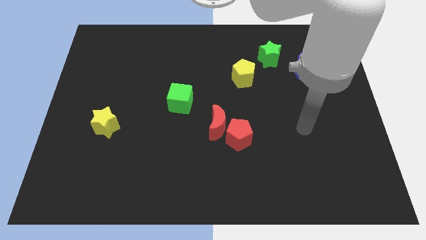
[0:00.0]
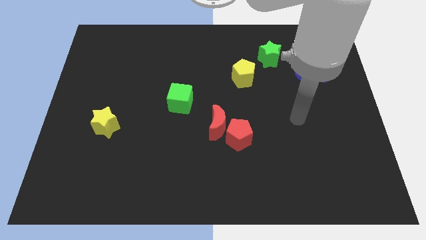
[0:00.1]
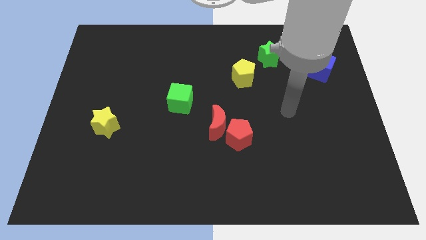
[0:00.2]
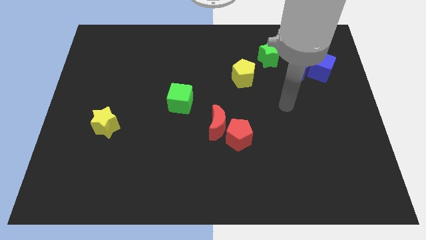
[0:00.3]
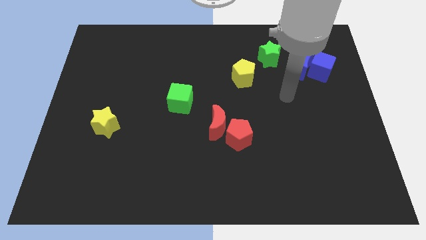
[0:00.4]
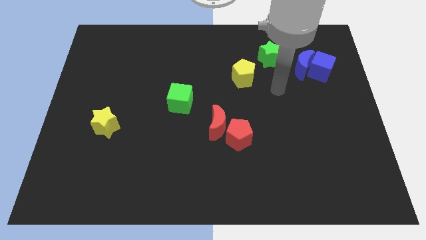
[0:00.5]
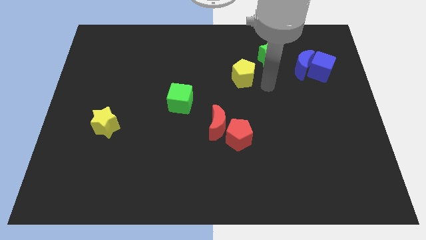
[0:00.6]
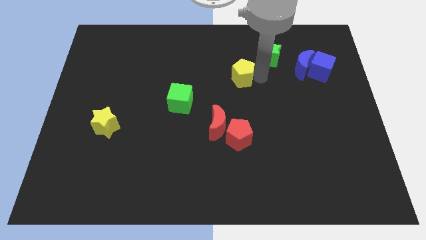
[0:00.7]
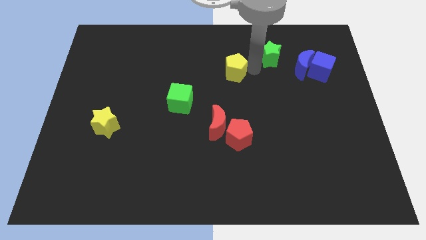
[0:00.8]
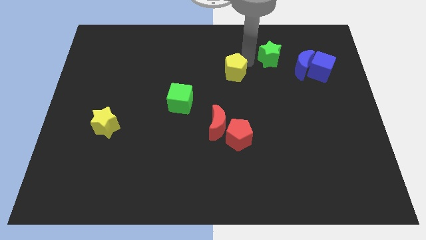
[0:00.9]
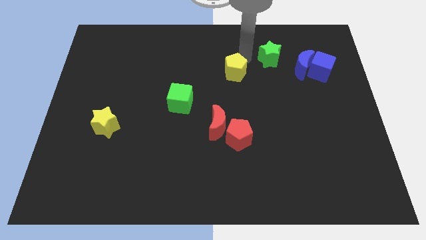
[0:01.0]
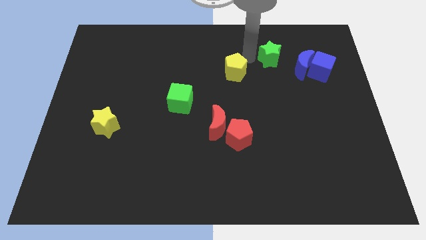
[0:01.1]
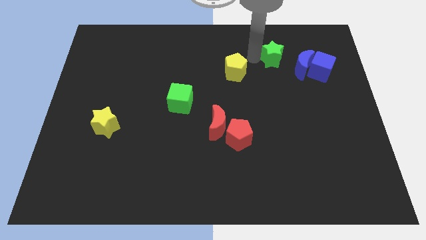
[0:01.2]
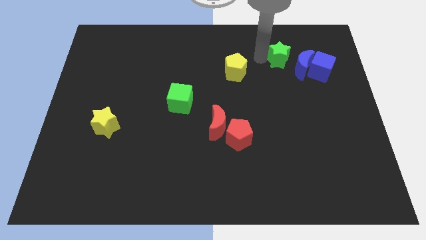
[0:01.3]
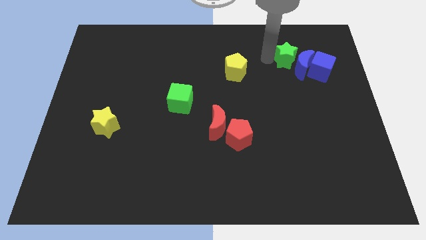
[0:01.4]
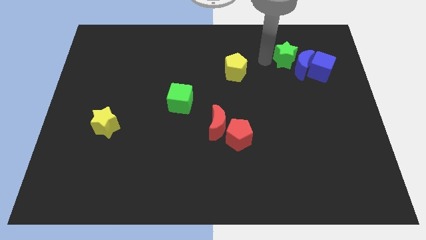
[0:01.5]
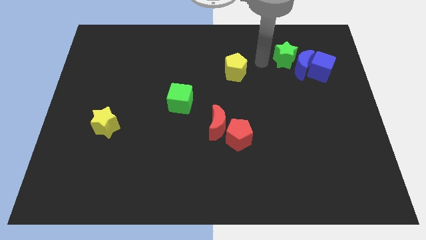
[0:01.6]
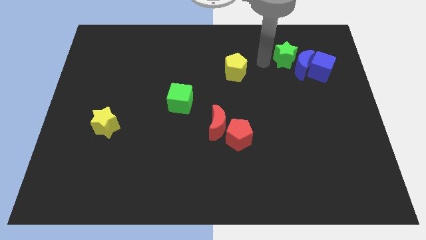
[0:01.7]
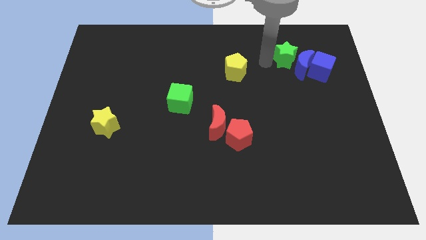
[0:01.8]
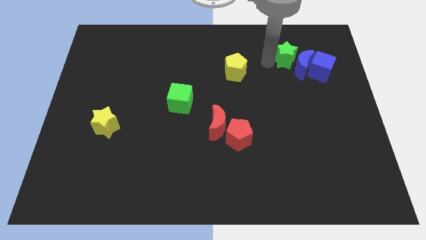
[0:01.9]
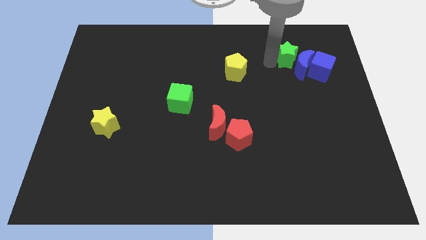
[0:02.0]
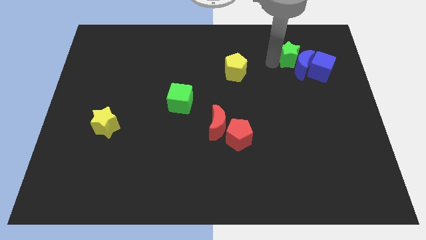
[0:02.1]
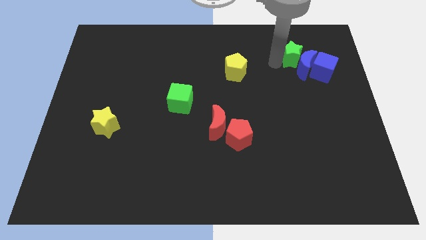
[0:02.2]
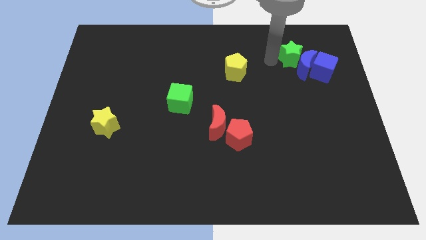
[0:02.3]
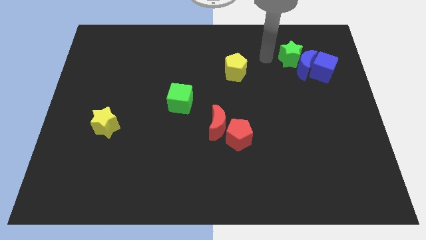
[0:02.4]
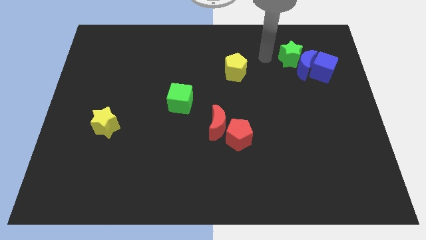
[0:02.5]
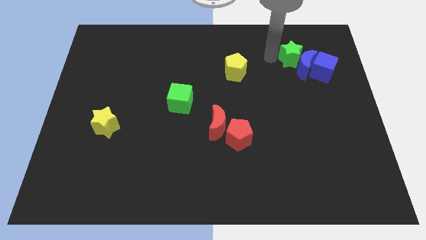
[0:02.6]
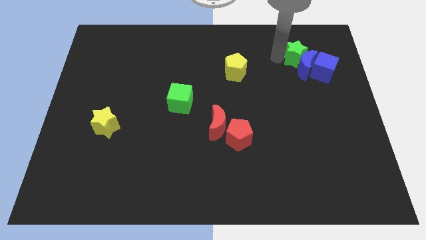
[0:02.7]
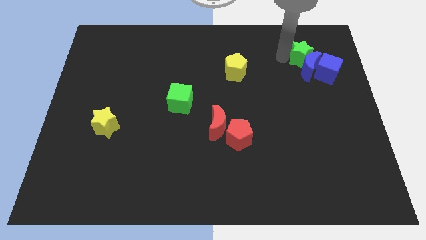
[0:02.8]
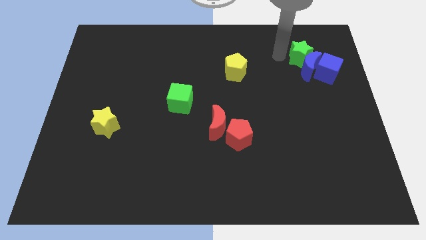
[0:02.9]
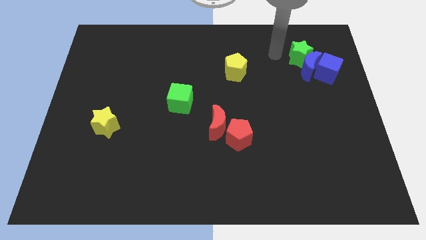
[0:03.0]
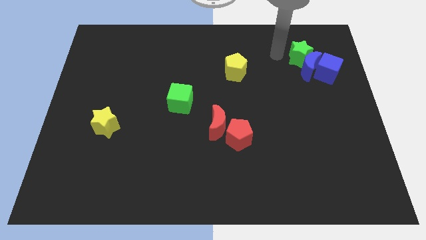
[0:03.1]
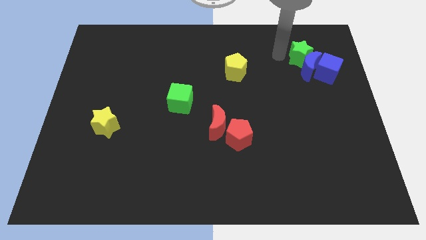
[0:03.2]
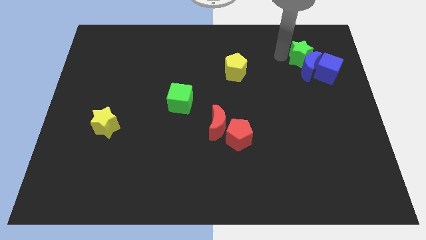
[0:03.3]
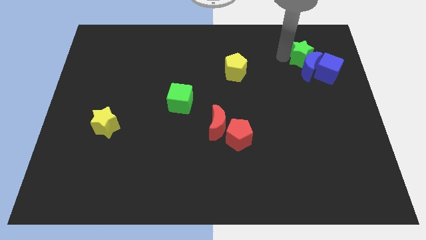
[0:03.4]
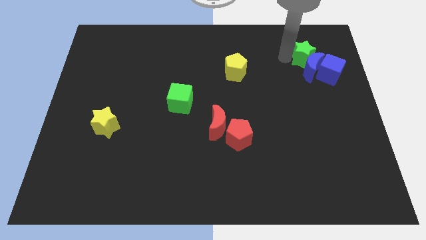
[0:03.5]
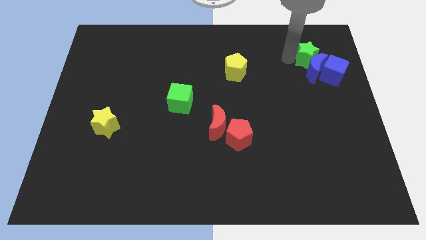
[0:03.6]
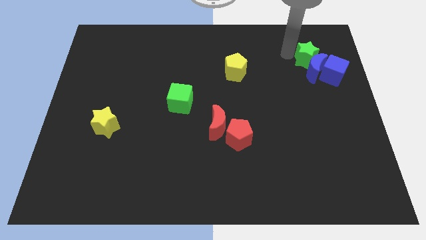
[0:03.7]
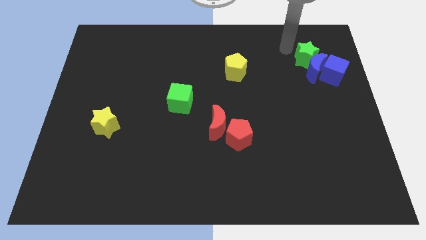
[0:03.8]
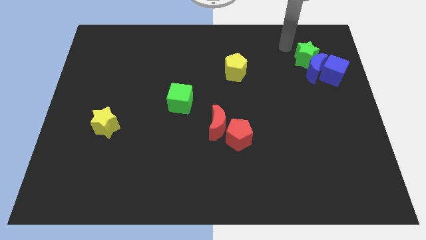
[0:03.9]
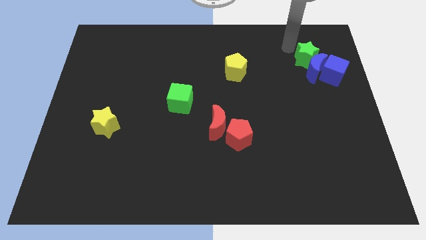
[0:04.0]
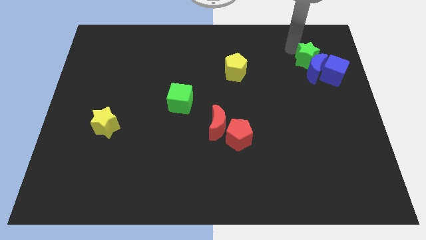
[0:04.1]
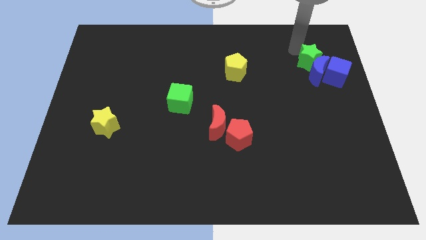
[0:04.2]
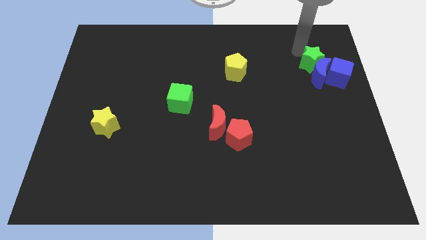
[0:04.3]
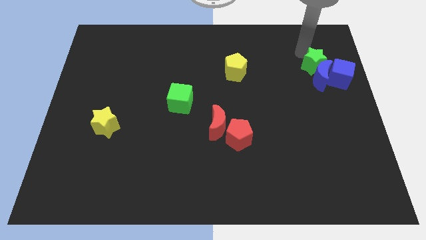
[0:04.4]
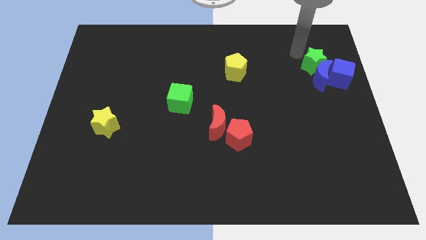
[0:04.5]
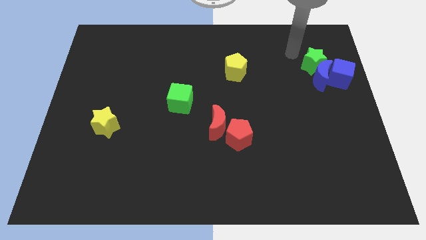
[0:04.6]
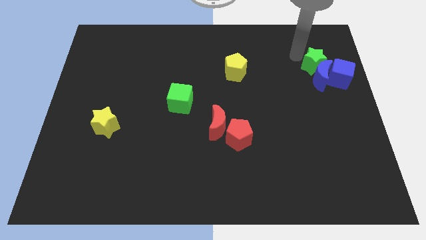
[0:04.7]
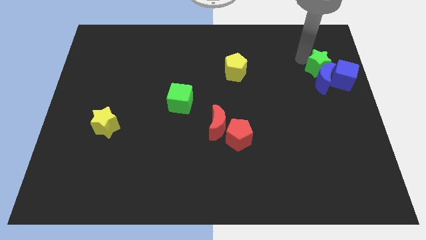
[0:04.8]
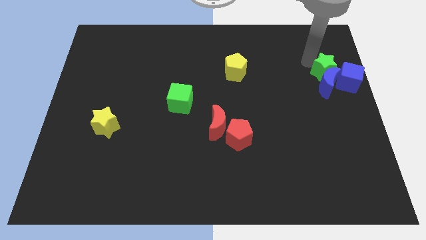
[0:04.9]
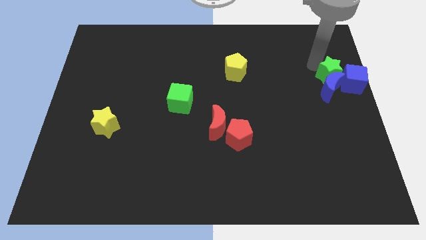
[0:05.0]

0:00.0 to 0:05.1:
push the green star to the blue cube

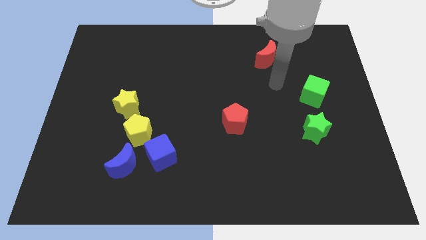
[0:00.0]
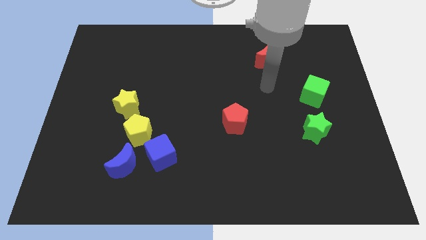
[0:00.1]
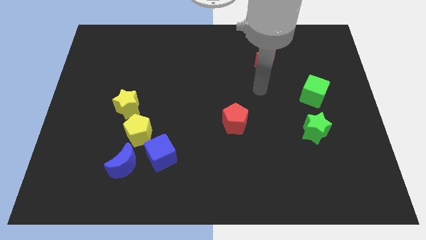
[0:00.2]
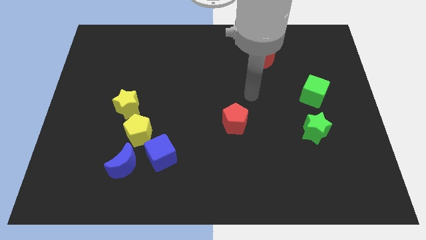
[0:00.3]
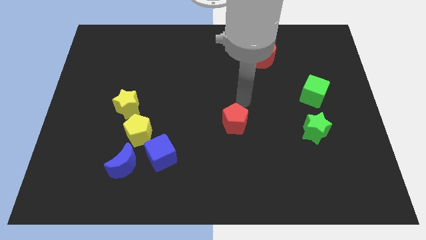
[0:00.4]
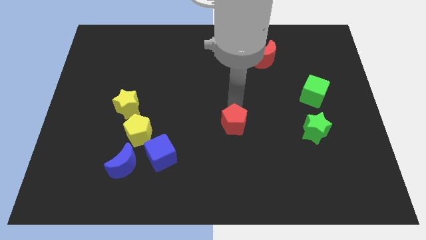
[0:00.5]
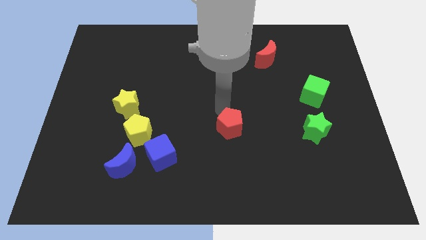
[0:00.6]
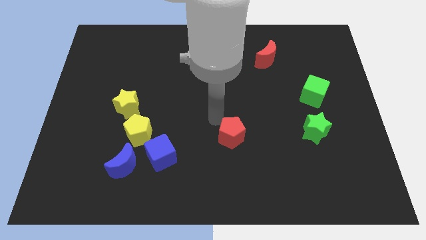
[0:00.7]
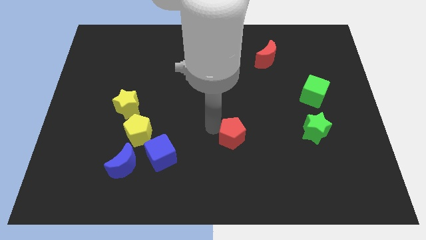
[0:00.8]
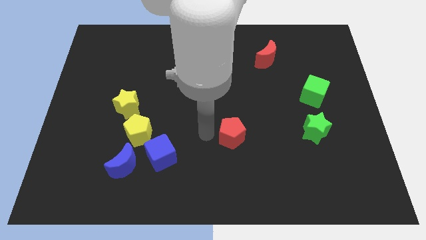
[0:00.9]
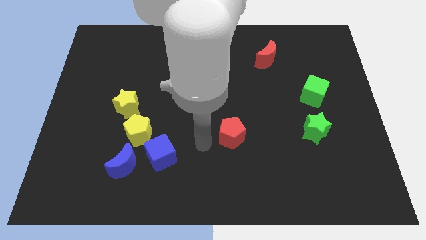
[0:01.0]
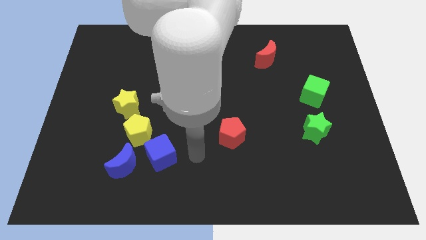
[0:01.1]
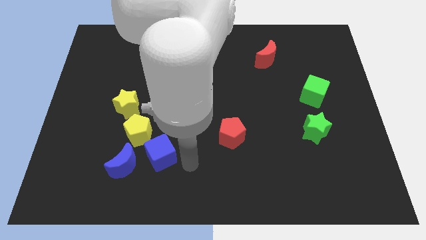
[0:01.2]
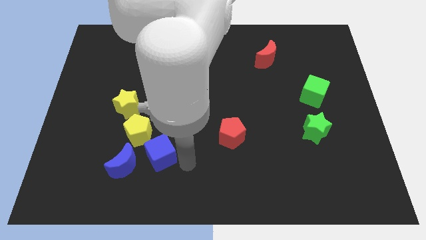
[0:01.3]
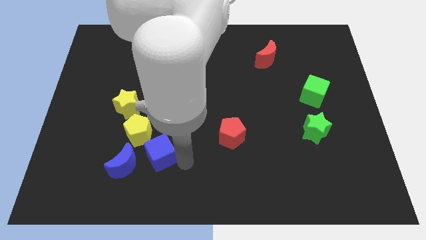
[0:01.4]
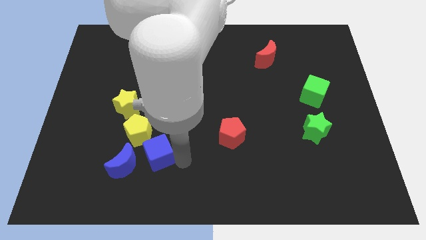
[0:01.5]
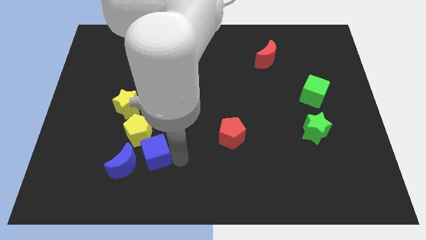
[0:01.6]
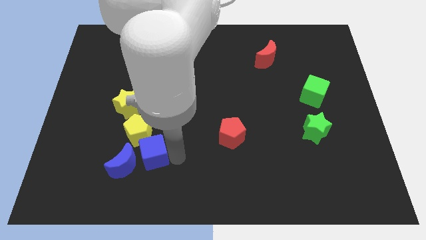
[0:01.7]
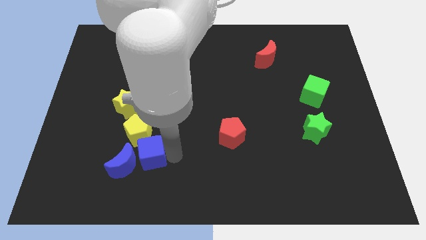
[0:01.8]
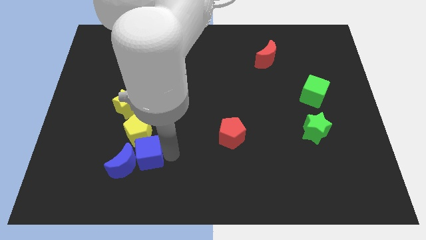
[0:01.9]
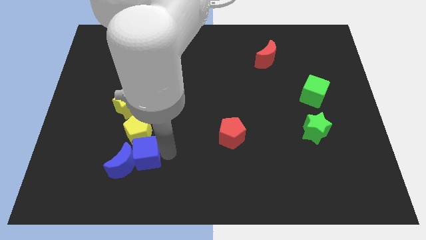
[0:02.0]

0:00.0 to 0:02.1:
push the blue cube towards the yellow pentagon

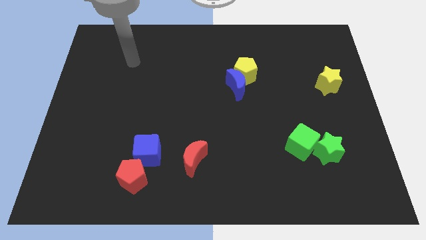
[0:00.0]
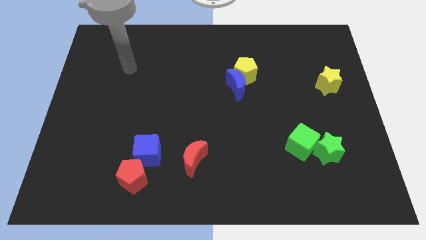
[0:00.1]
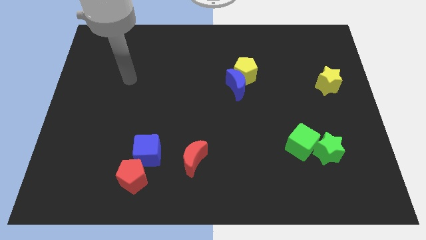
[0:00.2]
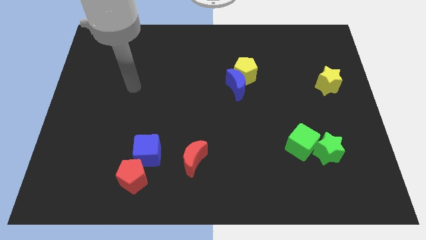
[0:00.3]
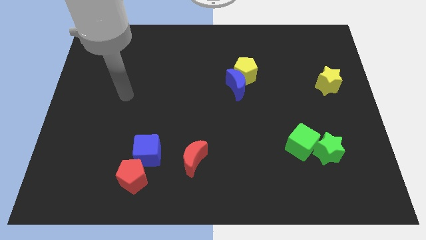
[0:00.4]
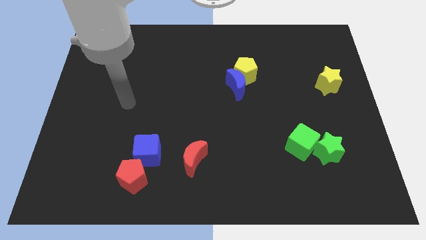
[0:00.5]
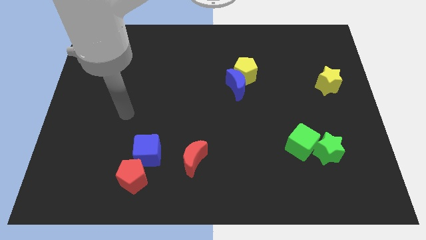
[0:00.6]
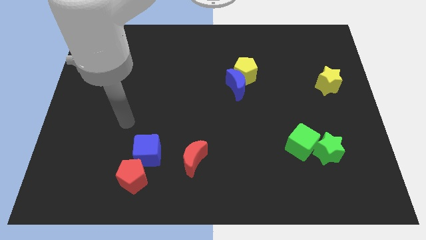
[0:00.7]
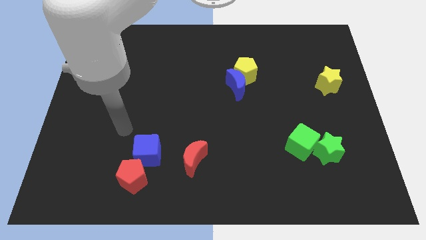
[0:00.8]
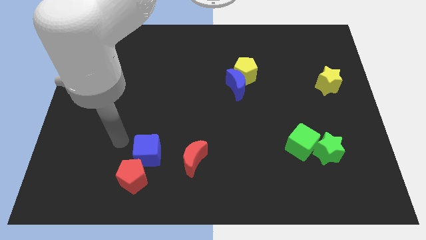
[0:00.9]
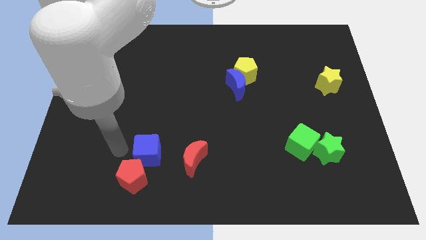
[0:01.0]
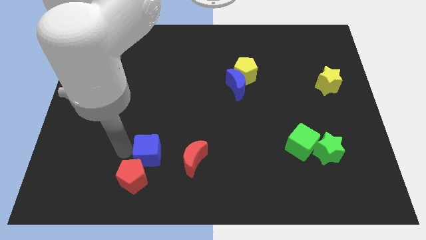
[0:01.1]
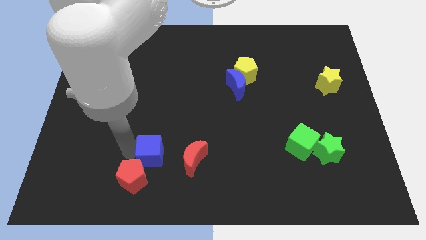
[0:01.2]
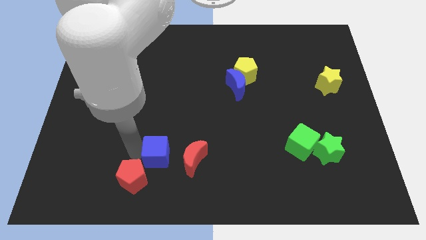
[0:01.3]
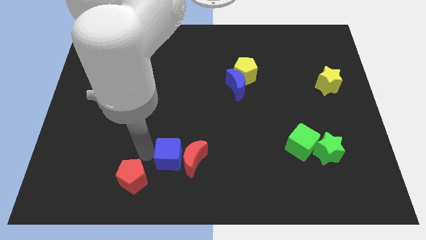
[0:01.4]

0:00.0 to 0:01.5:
move the blue cube close to the red moon
